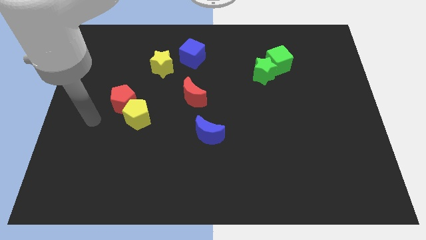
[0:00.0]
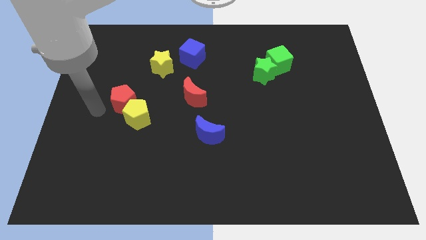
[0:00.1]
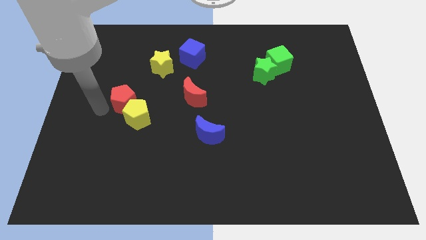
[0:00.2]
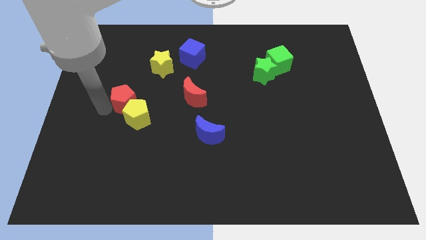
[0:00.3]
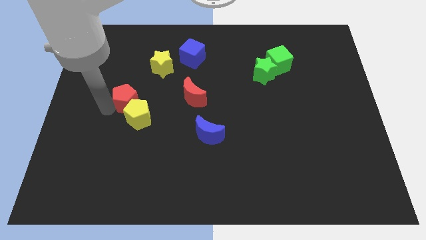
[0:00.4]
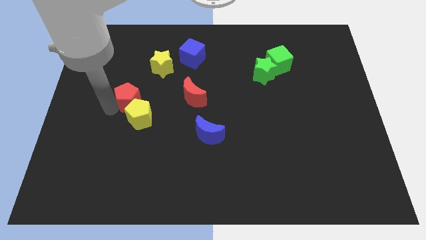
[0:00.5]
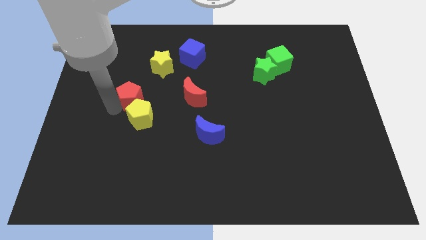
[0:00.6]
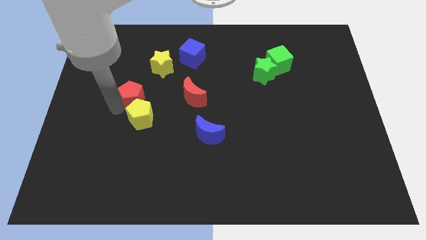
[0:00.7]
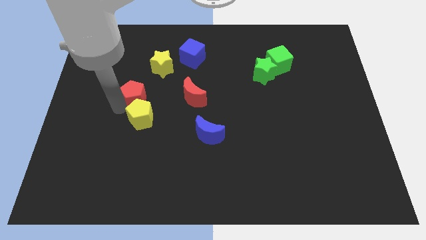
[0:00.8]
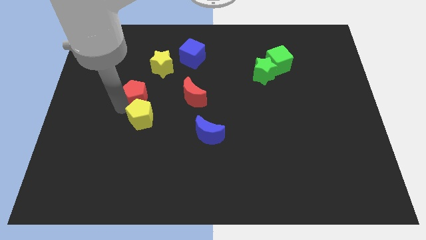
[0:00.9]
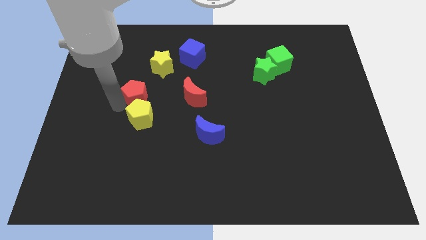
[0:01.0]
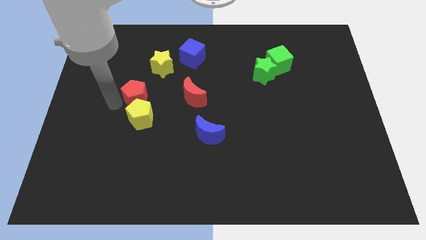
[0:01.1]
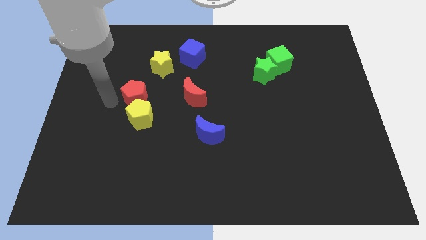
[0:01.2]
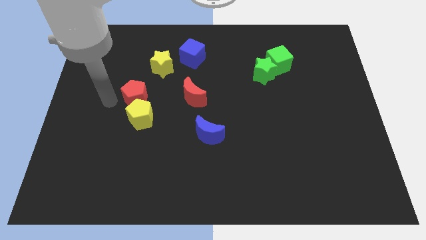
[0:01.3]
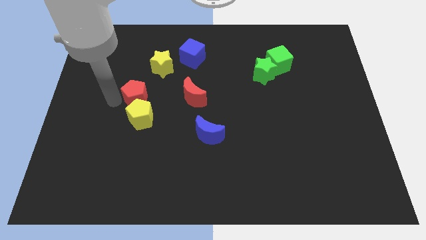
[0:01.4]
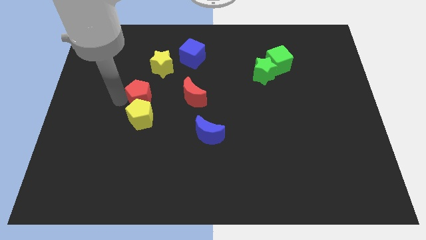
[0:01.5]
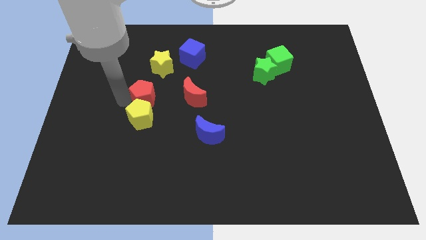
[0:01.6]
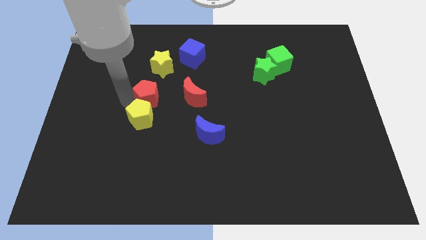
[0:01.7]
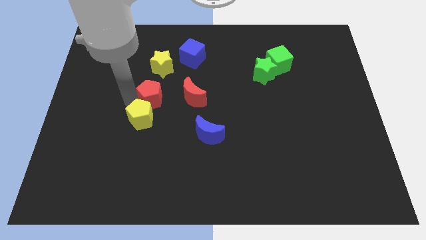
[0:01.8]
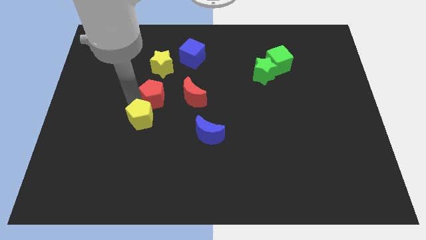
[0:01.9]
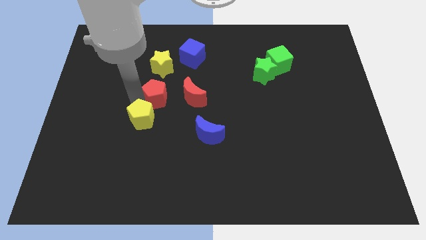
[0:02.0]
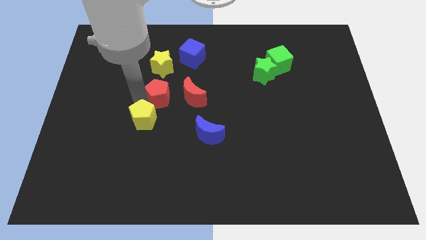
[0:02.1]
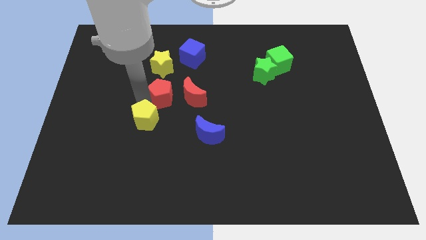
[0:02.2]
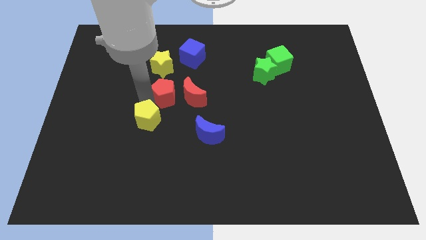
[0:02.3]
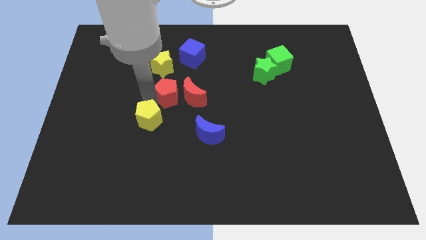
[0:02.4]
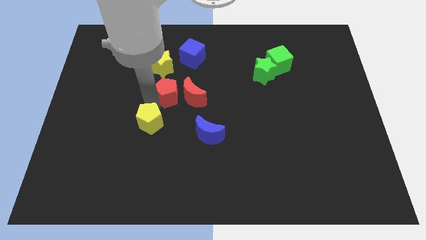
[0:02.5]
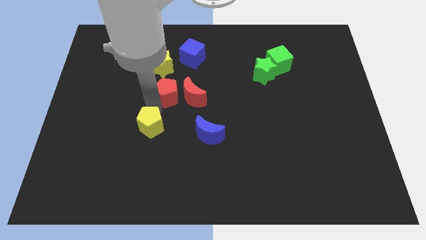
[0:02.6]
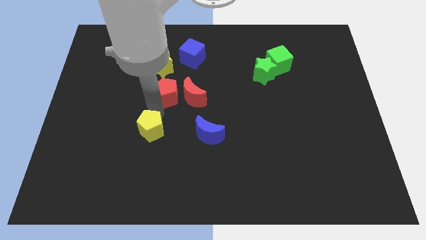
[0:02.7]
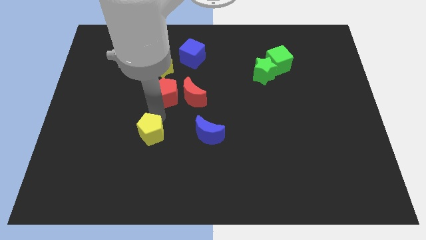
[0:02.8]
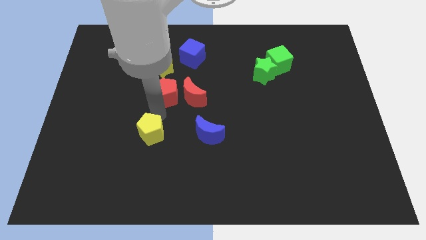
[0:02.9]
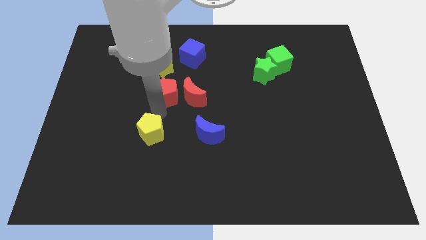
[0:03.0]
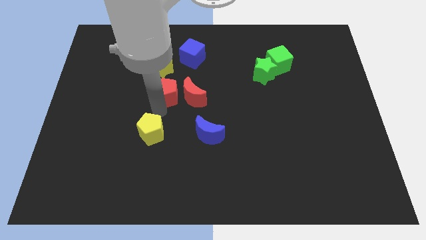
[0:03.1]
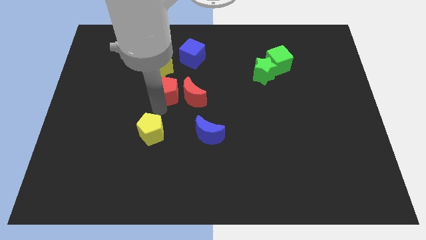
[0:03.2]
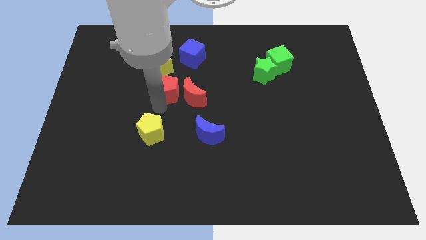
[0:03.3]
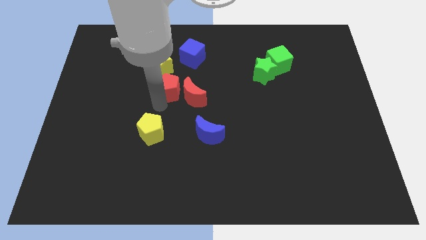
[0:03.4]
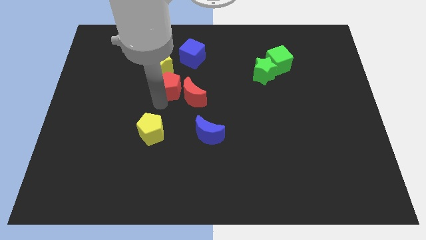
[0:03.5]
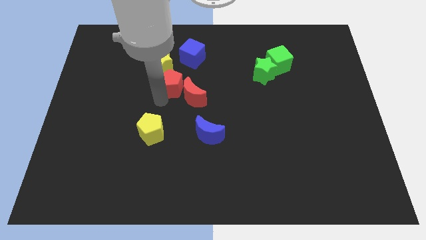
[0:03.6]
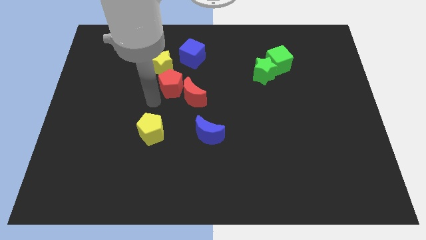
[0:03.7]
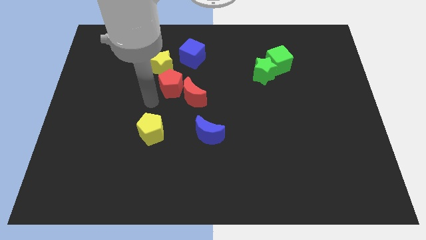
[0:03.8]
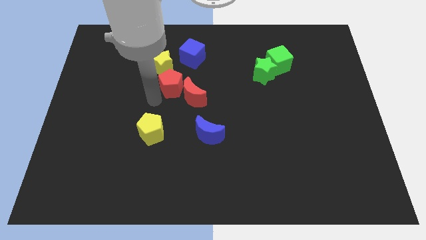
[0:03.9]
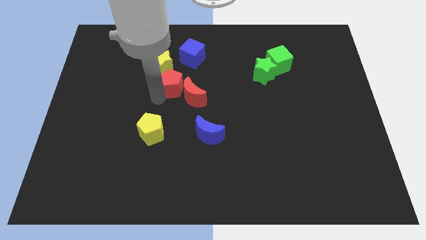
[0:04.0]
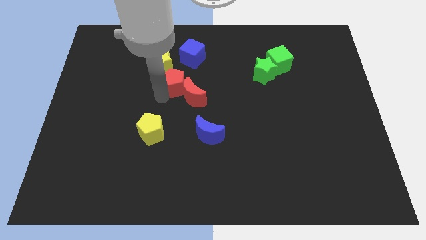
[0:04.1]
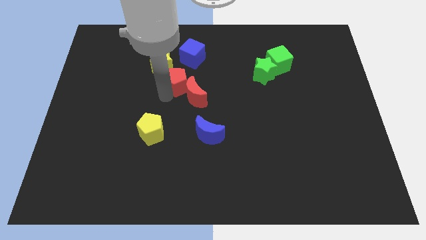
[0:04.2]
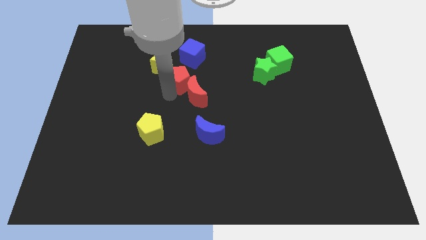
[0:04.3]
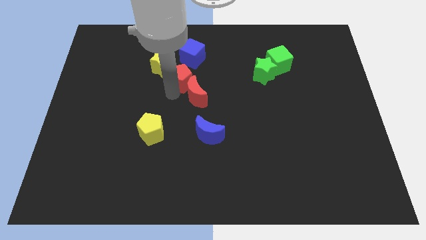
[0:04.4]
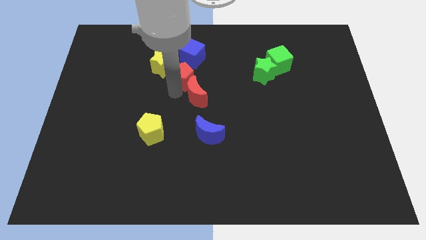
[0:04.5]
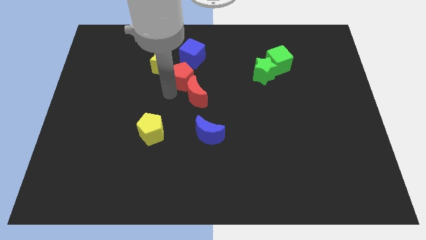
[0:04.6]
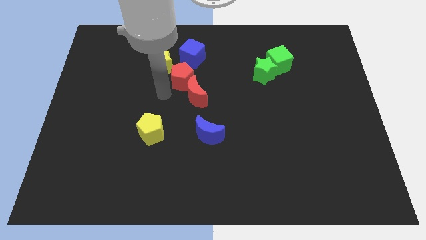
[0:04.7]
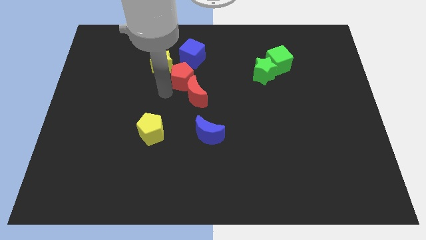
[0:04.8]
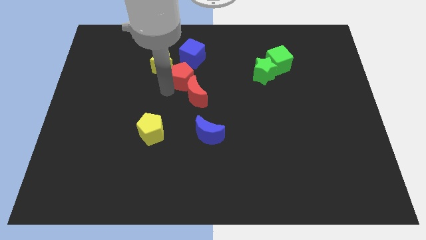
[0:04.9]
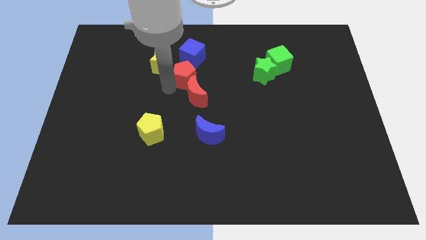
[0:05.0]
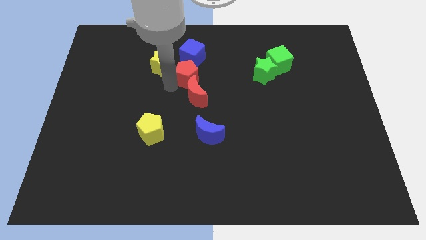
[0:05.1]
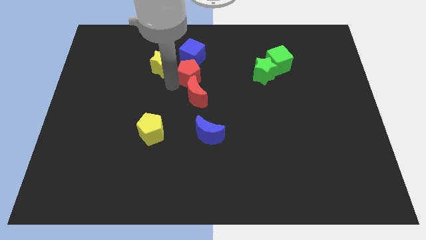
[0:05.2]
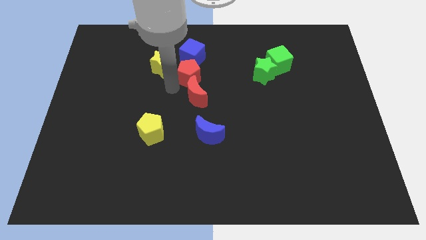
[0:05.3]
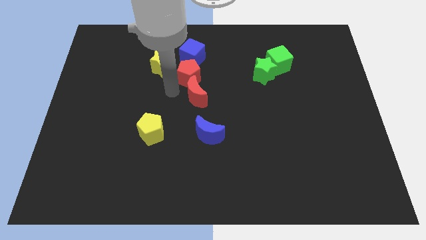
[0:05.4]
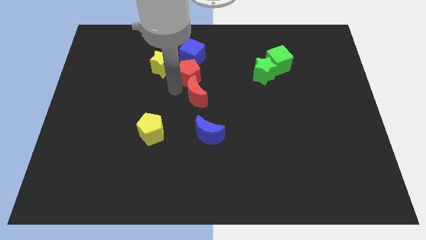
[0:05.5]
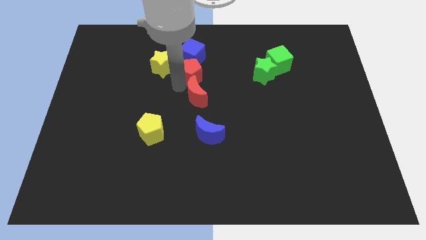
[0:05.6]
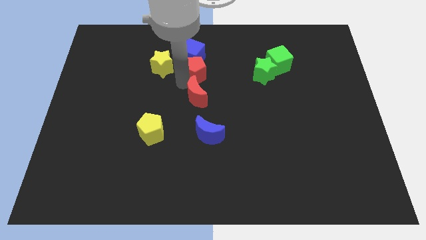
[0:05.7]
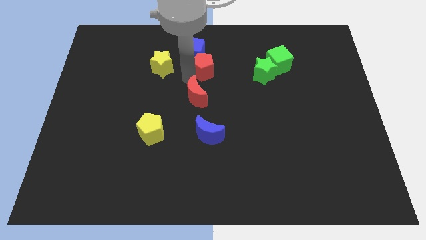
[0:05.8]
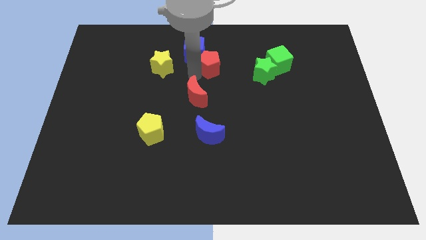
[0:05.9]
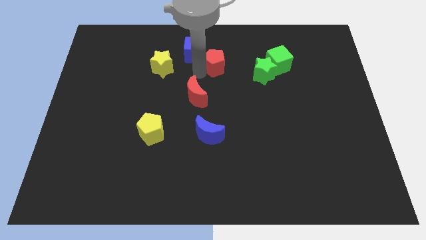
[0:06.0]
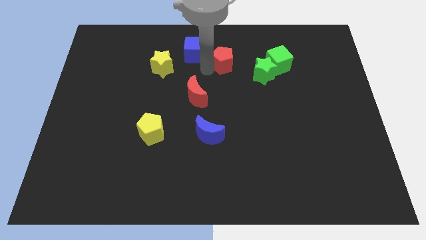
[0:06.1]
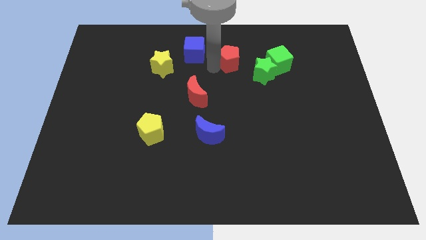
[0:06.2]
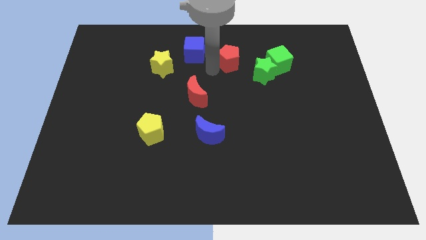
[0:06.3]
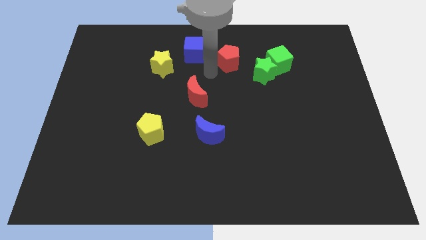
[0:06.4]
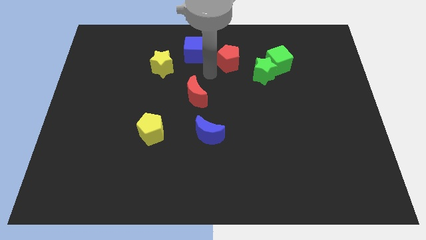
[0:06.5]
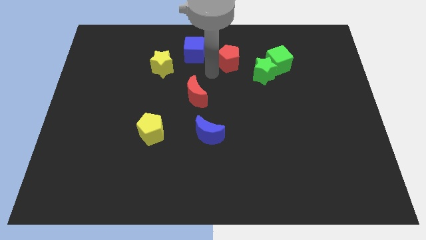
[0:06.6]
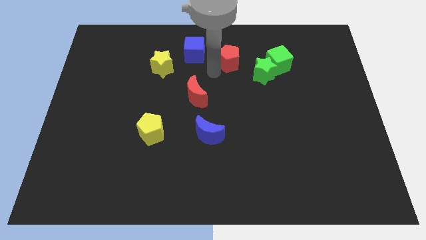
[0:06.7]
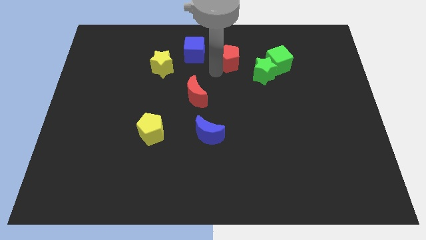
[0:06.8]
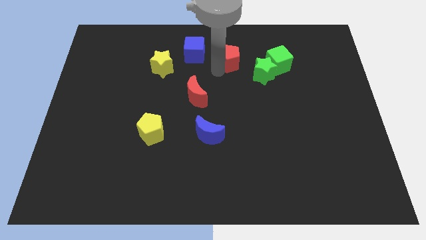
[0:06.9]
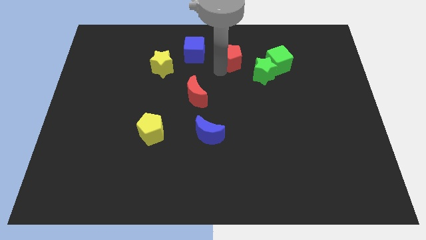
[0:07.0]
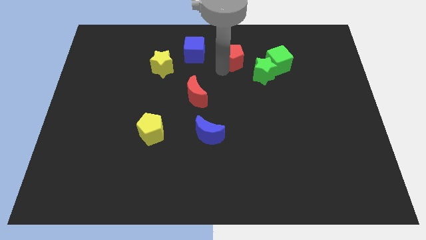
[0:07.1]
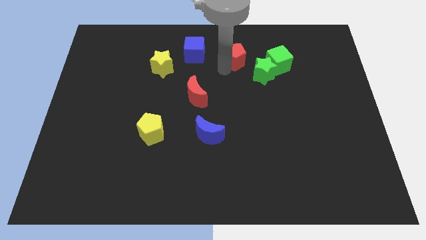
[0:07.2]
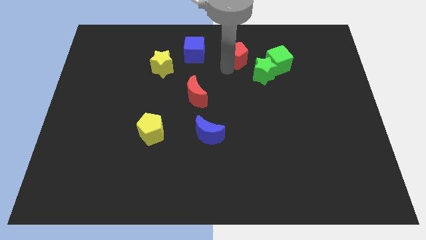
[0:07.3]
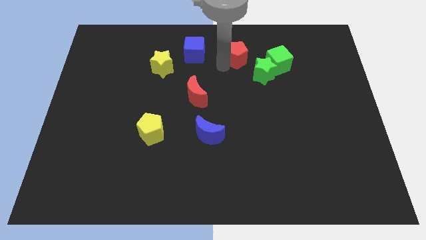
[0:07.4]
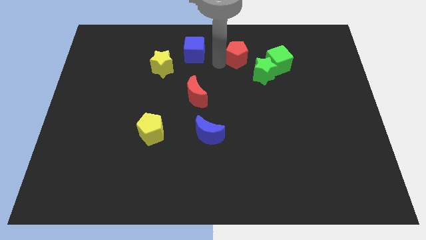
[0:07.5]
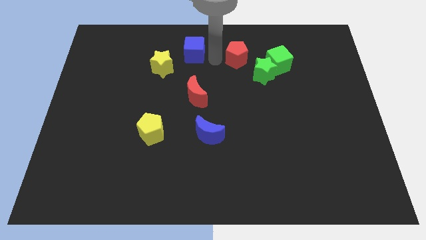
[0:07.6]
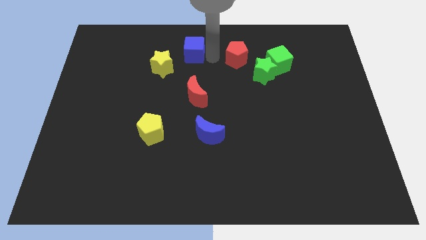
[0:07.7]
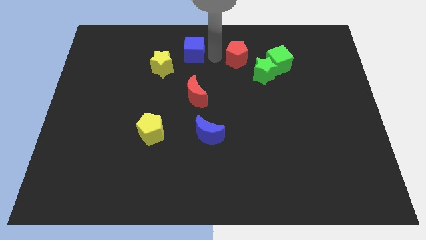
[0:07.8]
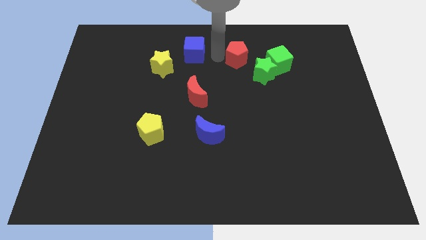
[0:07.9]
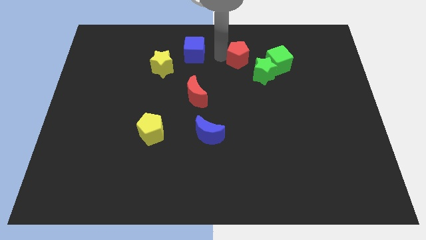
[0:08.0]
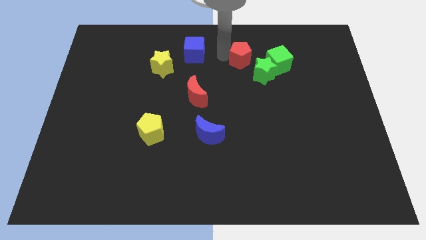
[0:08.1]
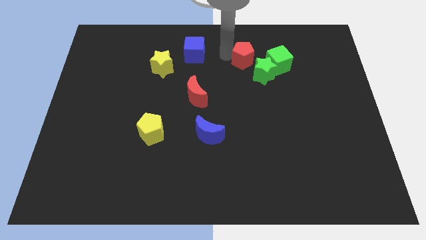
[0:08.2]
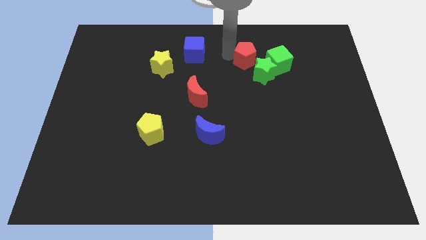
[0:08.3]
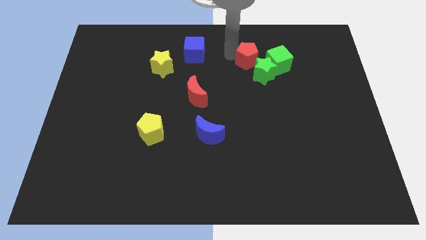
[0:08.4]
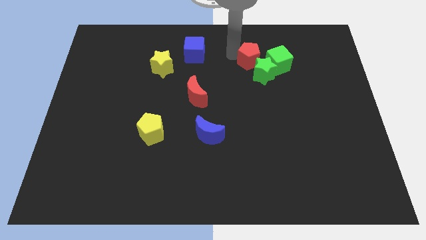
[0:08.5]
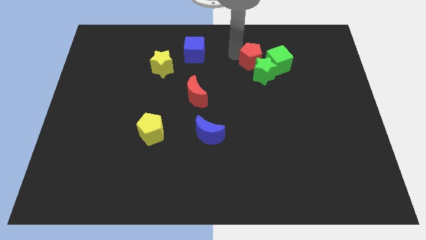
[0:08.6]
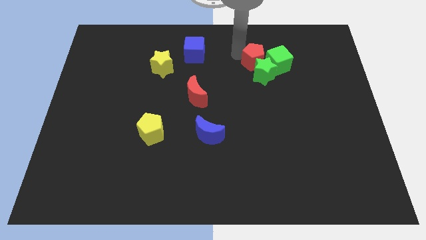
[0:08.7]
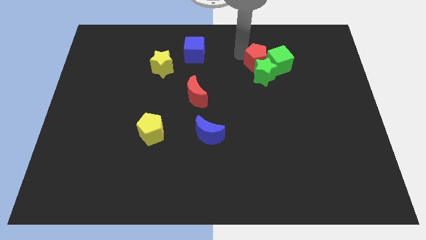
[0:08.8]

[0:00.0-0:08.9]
put the red pentagon to the green cube
